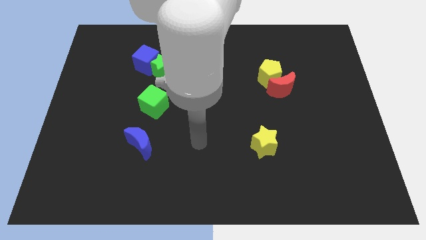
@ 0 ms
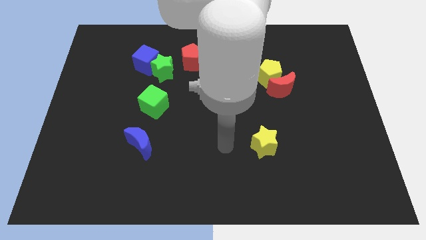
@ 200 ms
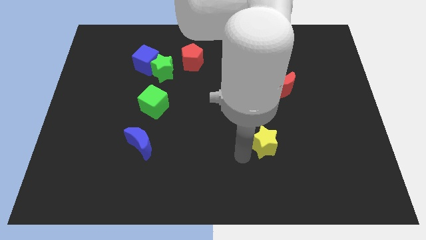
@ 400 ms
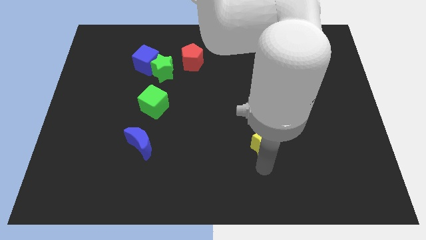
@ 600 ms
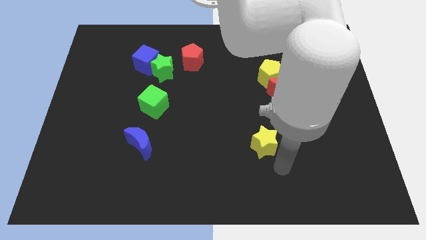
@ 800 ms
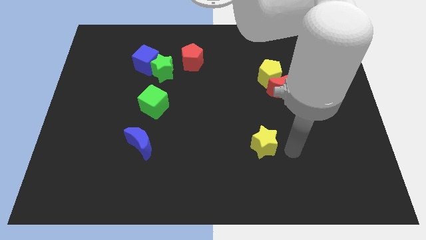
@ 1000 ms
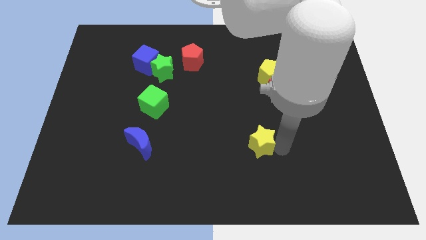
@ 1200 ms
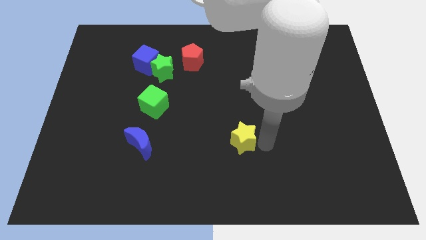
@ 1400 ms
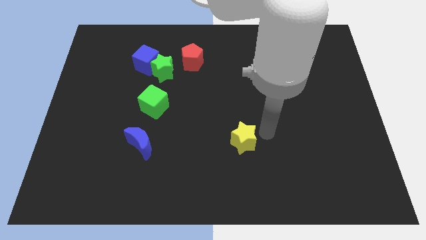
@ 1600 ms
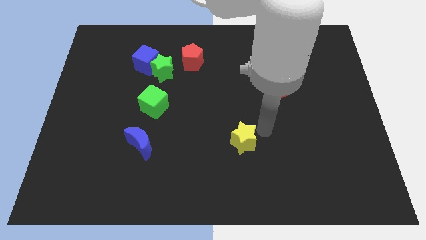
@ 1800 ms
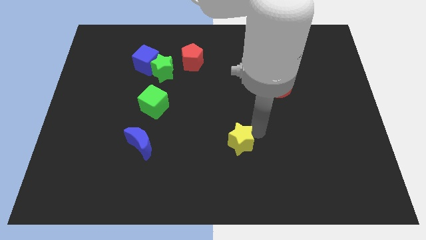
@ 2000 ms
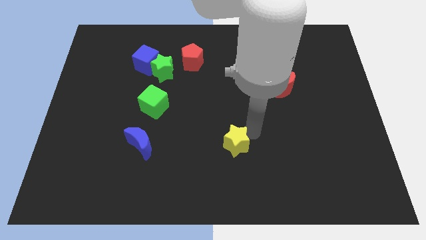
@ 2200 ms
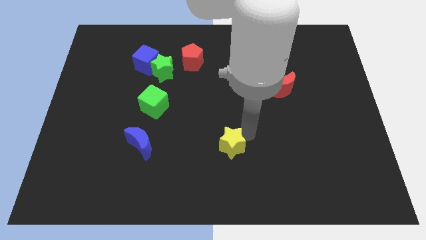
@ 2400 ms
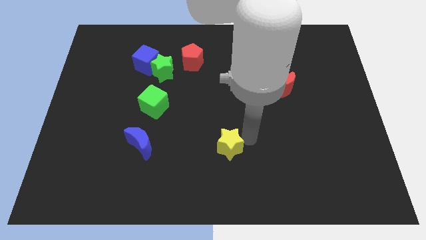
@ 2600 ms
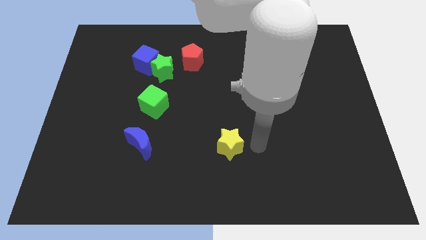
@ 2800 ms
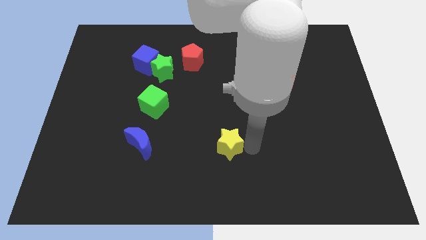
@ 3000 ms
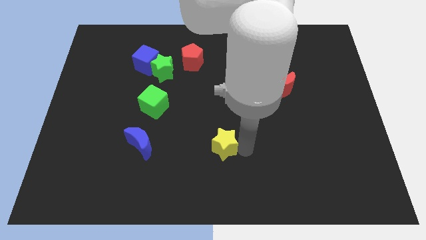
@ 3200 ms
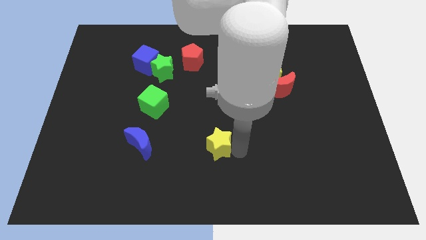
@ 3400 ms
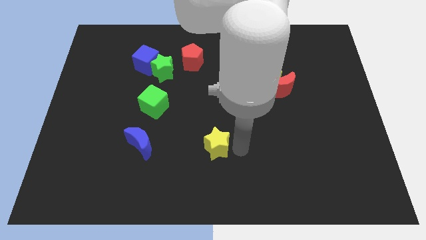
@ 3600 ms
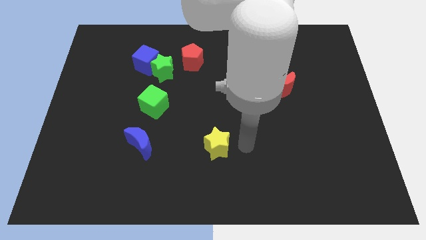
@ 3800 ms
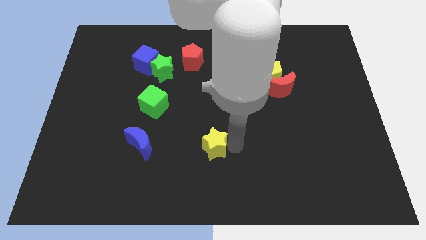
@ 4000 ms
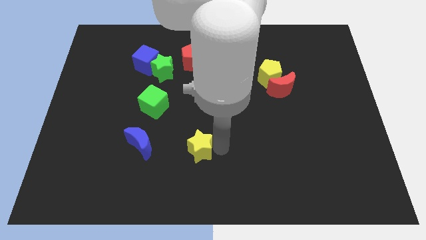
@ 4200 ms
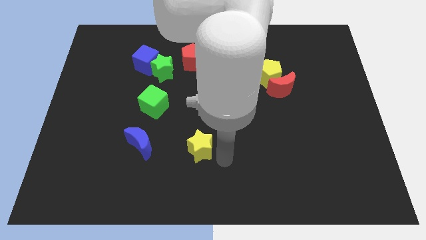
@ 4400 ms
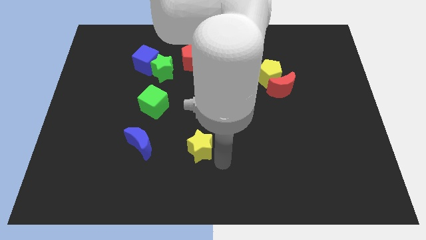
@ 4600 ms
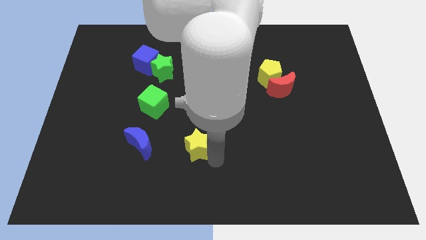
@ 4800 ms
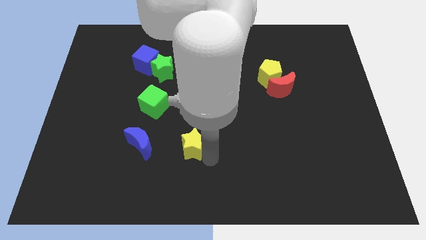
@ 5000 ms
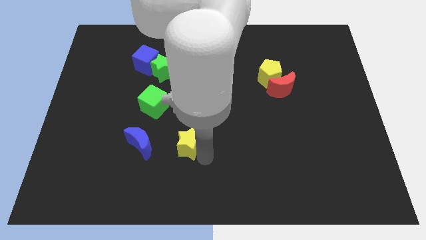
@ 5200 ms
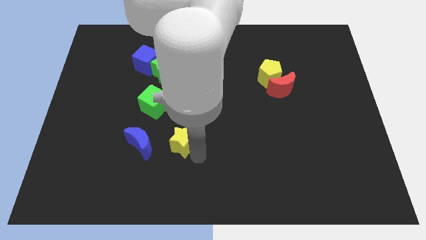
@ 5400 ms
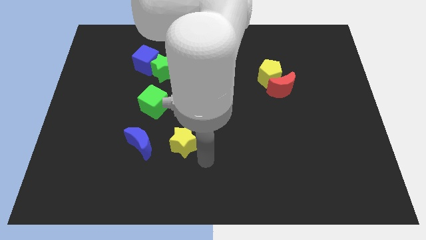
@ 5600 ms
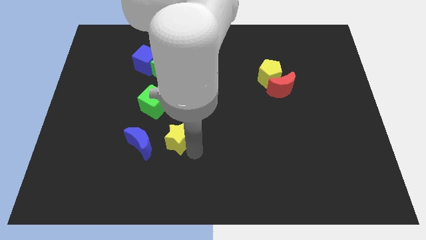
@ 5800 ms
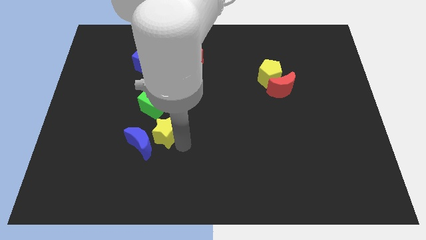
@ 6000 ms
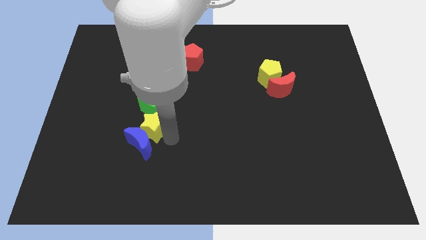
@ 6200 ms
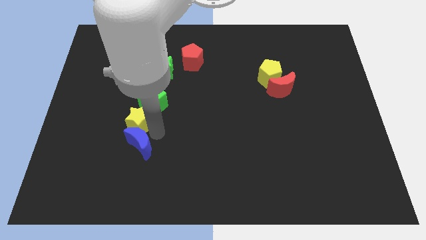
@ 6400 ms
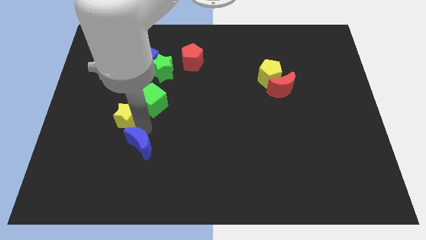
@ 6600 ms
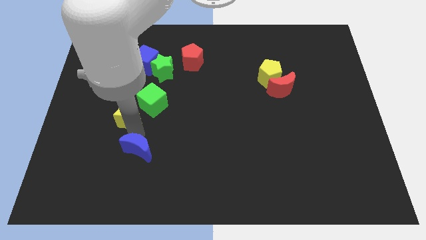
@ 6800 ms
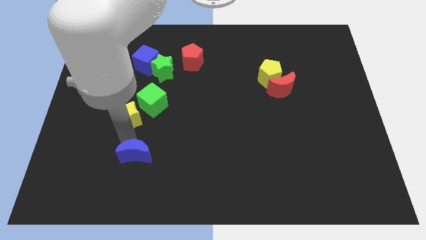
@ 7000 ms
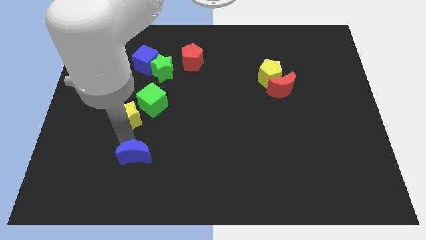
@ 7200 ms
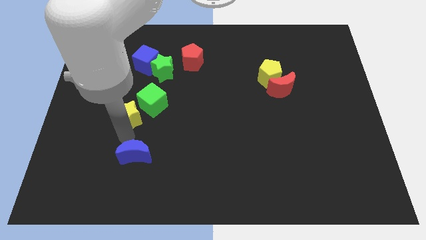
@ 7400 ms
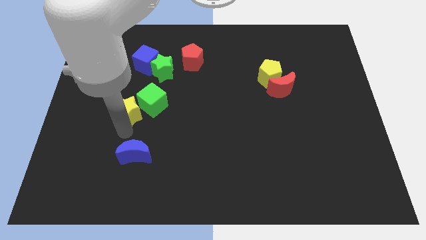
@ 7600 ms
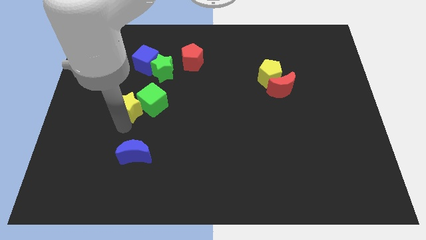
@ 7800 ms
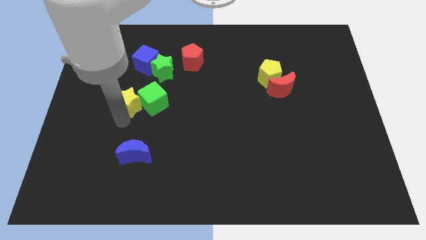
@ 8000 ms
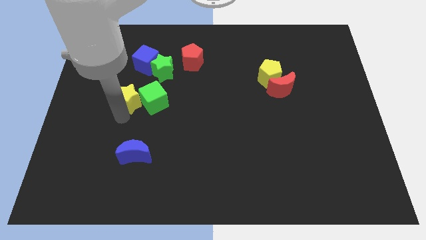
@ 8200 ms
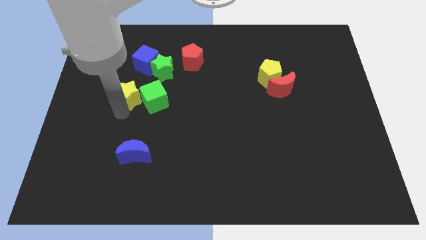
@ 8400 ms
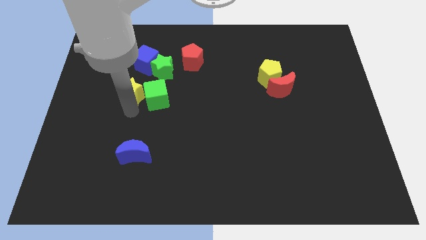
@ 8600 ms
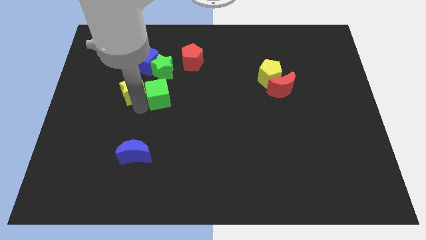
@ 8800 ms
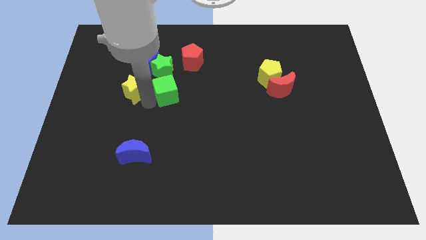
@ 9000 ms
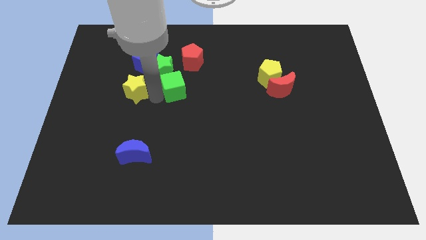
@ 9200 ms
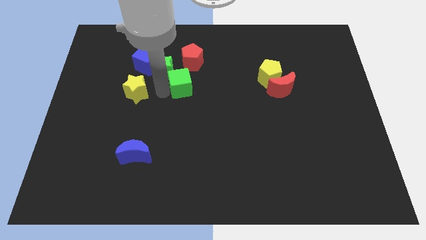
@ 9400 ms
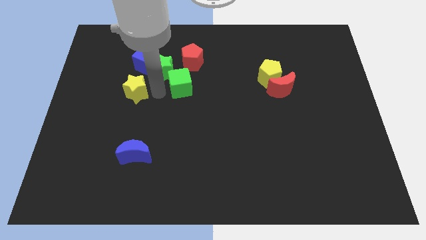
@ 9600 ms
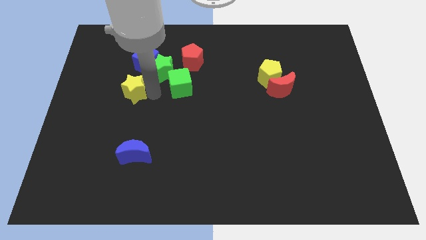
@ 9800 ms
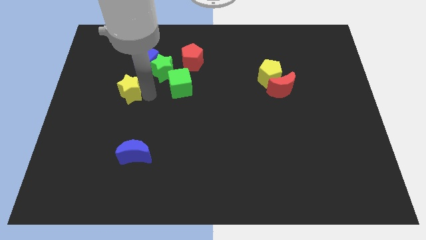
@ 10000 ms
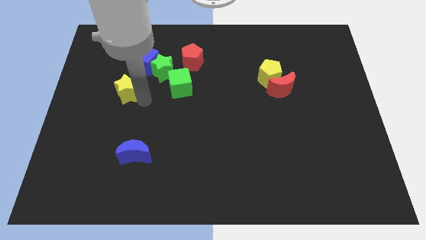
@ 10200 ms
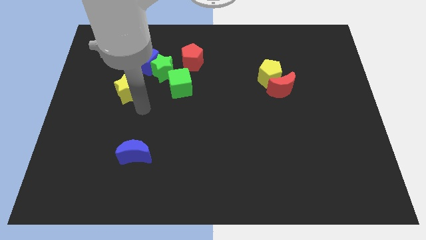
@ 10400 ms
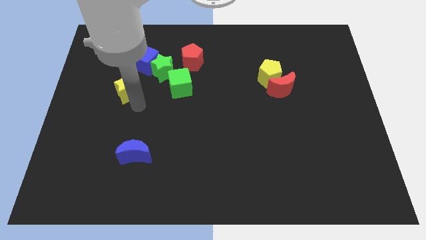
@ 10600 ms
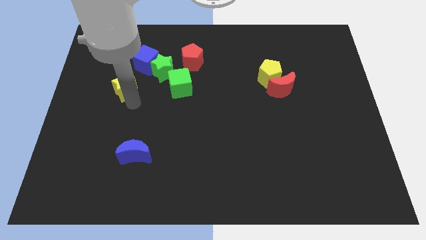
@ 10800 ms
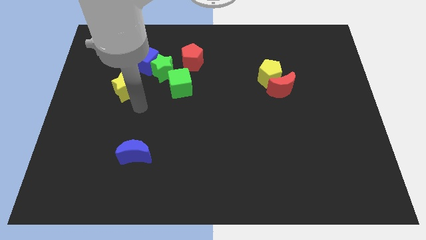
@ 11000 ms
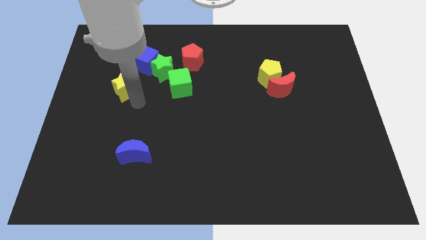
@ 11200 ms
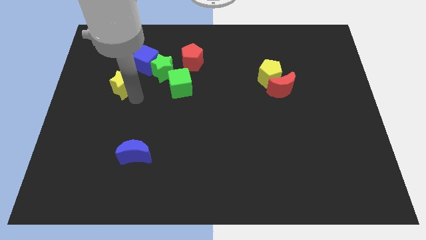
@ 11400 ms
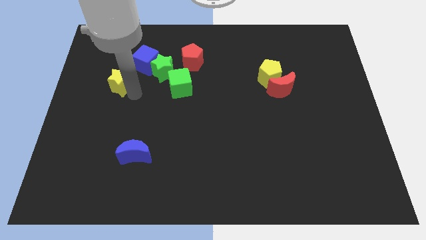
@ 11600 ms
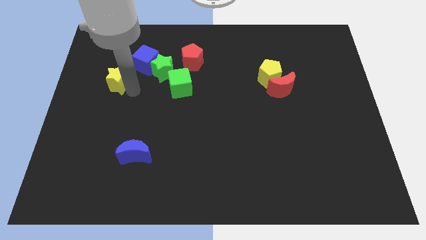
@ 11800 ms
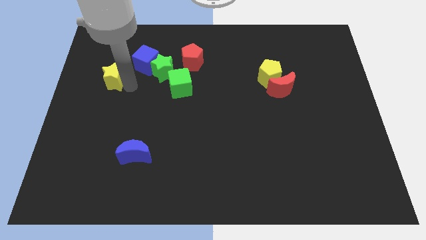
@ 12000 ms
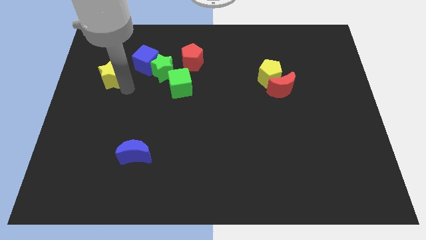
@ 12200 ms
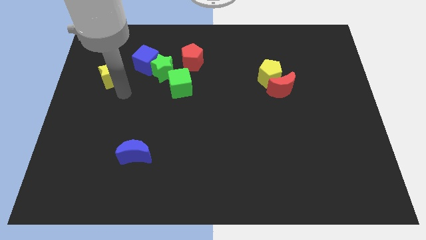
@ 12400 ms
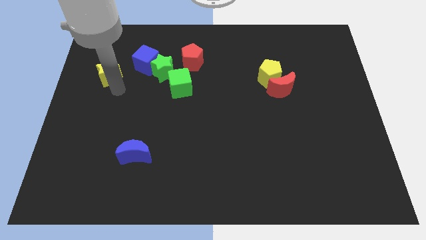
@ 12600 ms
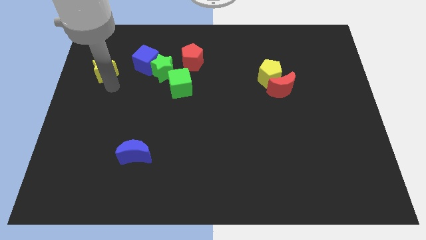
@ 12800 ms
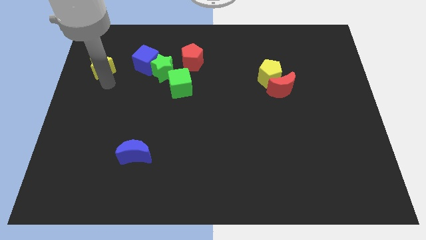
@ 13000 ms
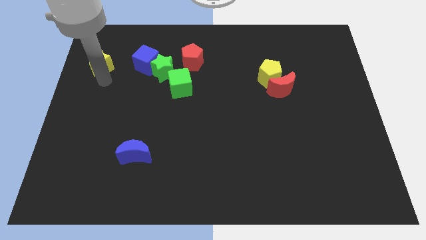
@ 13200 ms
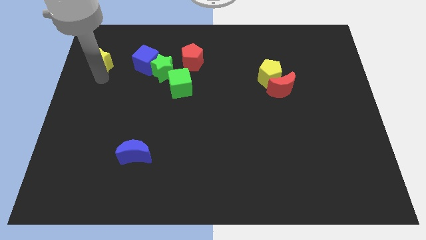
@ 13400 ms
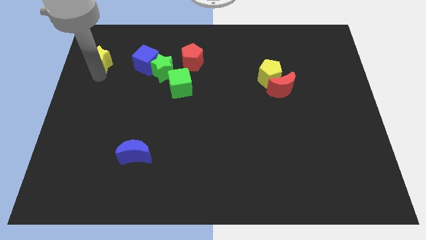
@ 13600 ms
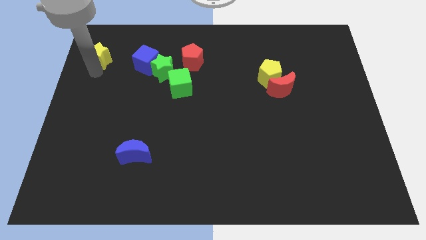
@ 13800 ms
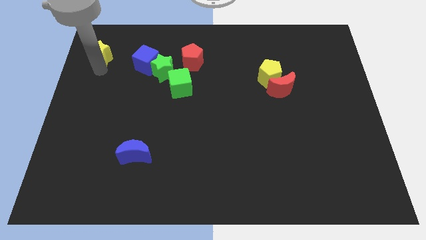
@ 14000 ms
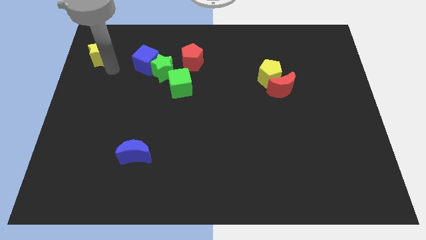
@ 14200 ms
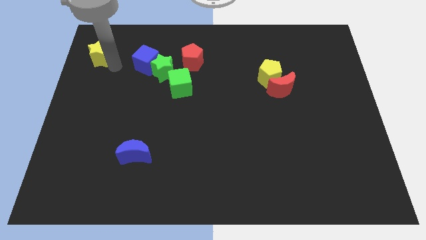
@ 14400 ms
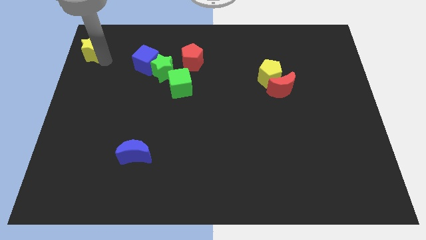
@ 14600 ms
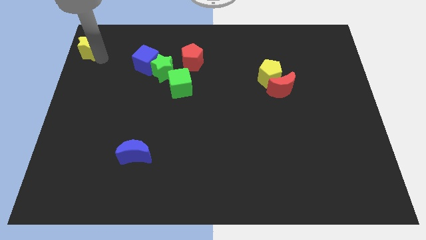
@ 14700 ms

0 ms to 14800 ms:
slide the yellow star to the upper left corner
